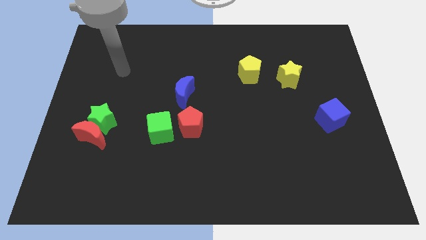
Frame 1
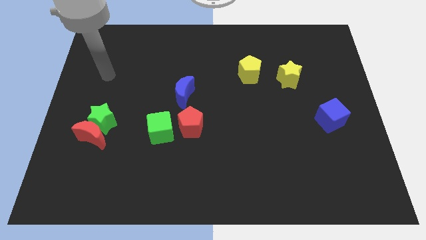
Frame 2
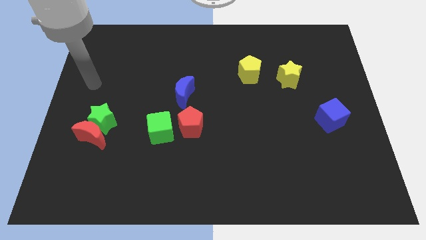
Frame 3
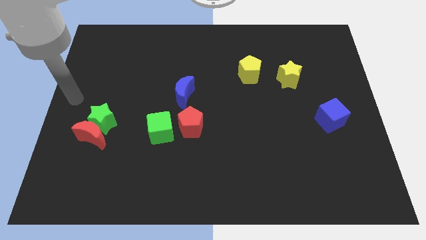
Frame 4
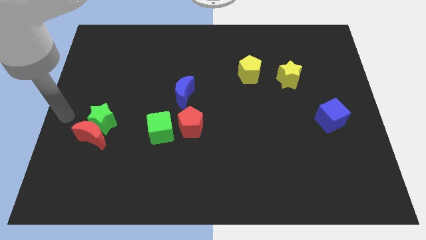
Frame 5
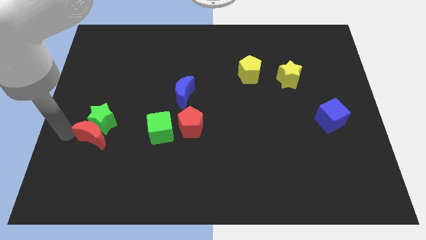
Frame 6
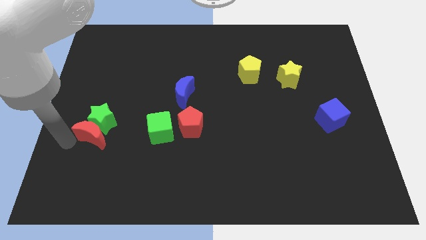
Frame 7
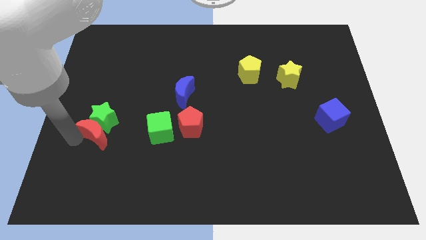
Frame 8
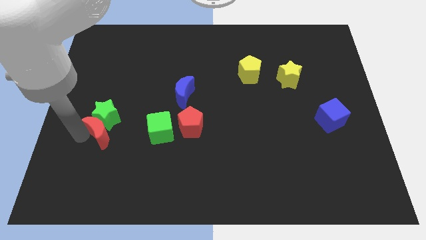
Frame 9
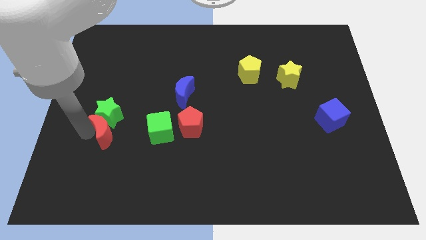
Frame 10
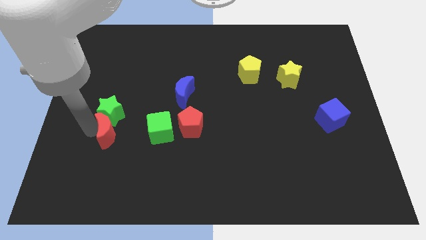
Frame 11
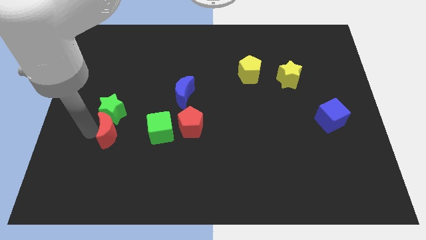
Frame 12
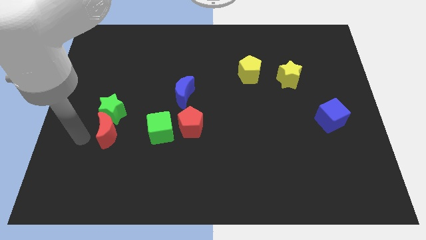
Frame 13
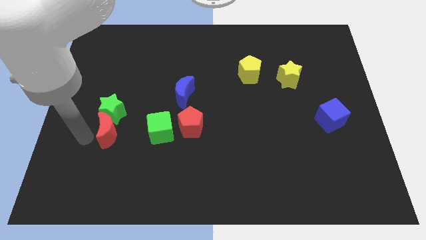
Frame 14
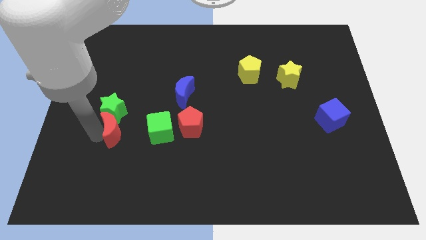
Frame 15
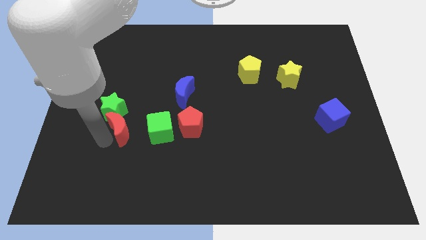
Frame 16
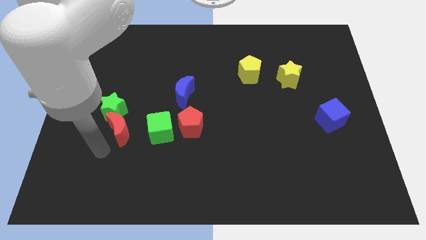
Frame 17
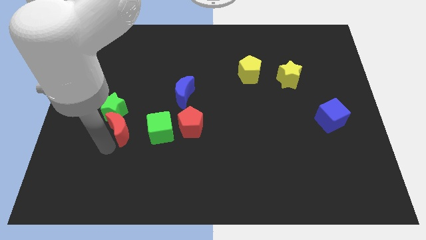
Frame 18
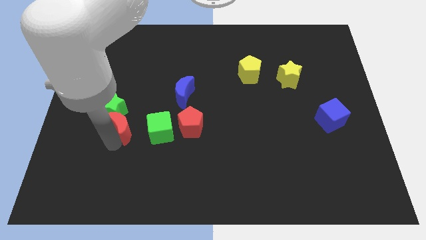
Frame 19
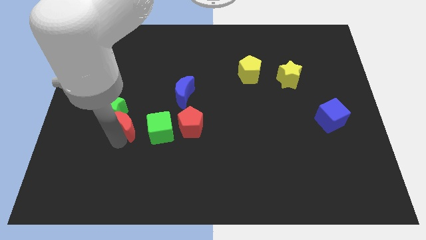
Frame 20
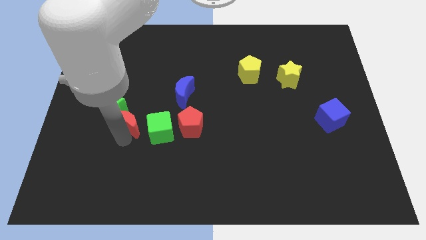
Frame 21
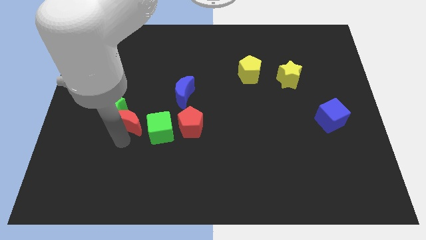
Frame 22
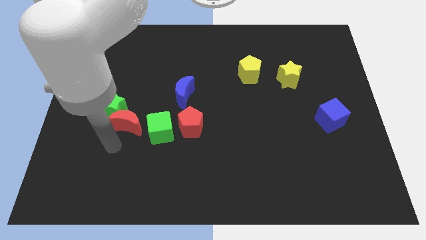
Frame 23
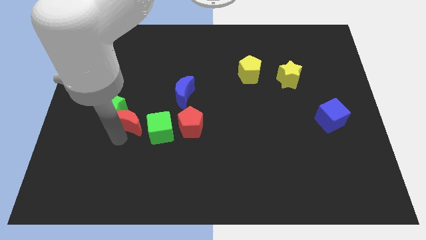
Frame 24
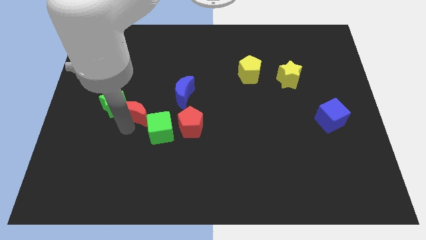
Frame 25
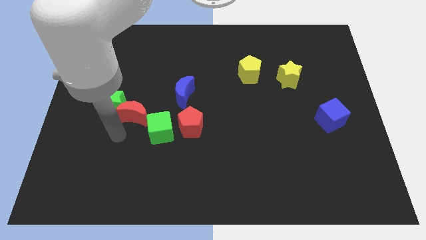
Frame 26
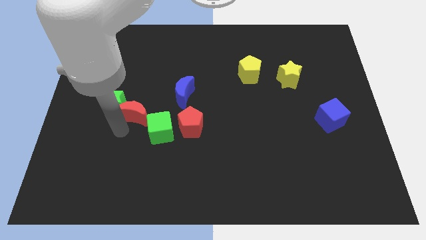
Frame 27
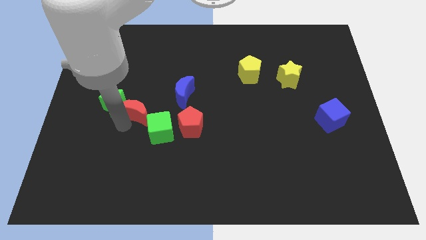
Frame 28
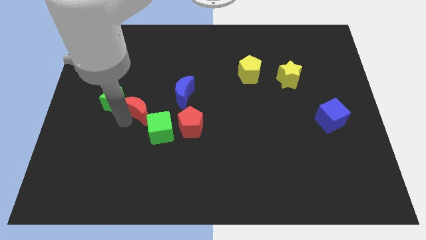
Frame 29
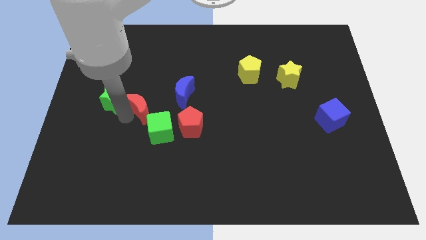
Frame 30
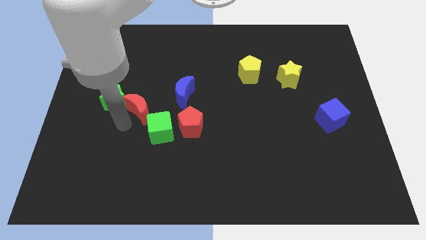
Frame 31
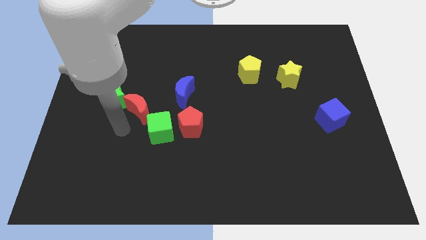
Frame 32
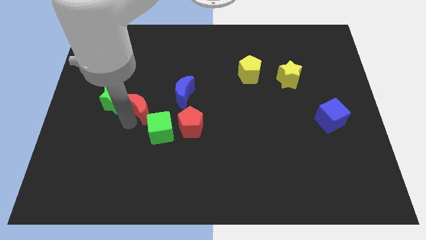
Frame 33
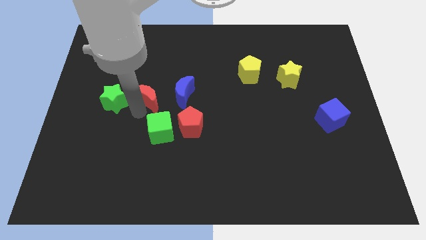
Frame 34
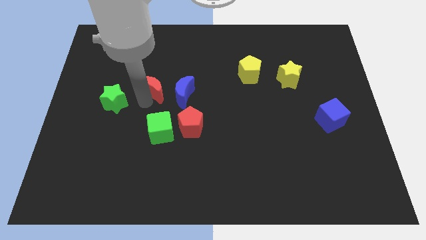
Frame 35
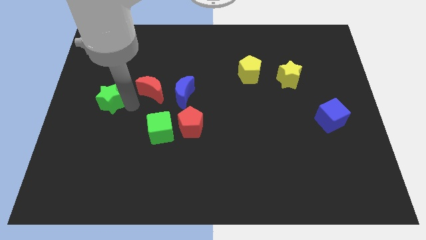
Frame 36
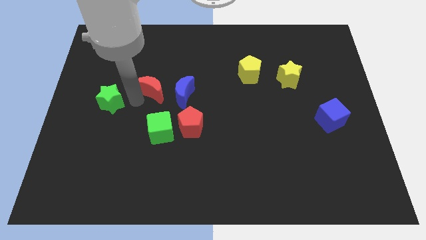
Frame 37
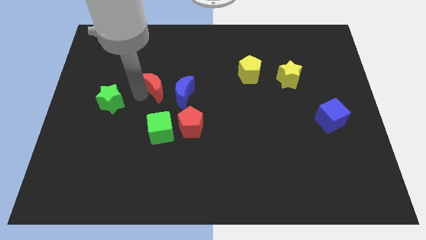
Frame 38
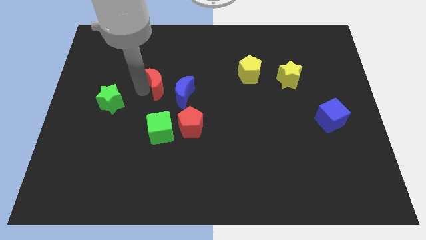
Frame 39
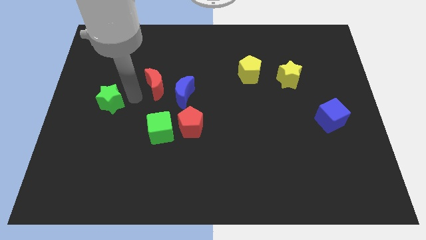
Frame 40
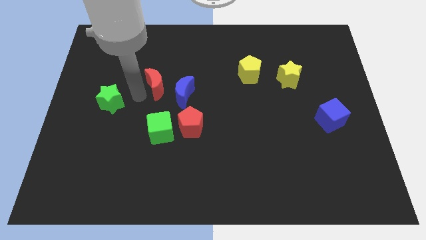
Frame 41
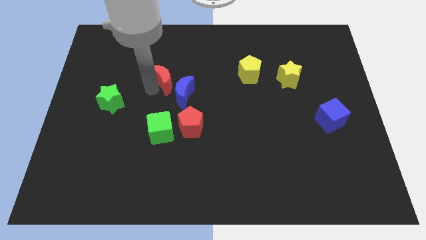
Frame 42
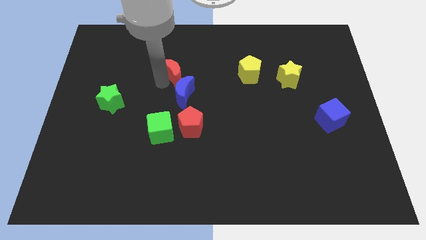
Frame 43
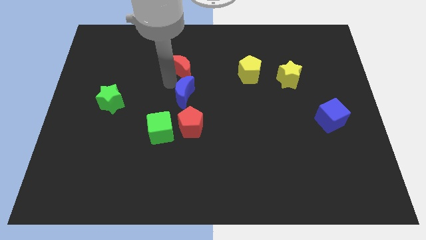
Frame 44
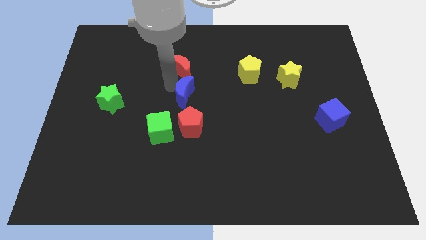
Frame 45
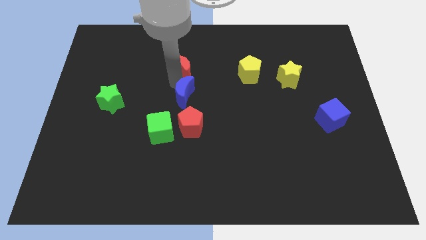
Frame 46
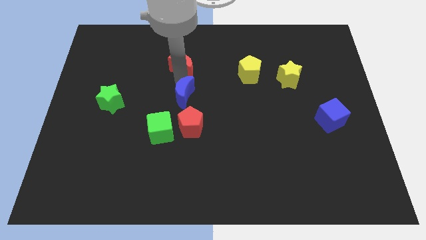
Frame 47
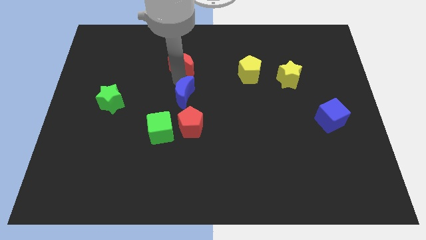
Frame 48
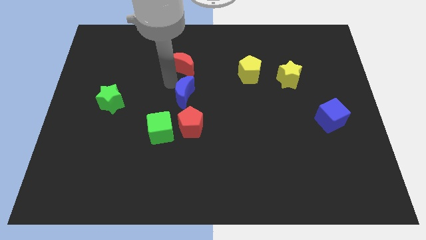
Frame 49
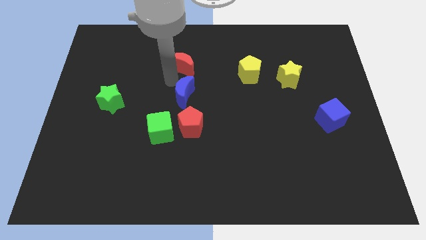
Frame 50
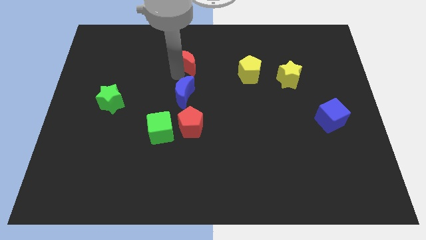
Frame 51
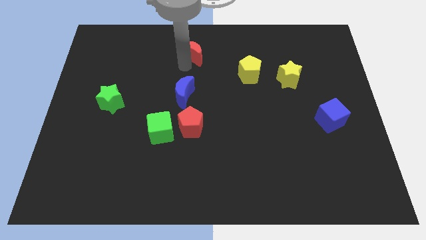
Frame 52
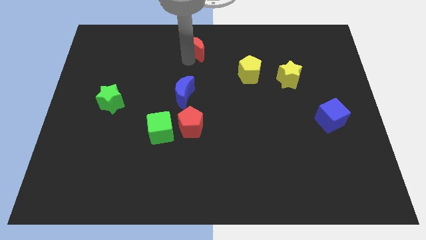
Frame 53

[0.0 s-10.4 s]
put the red moon to the top
